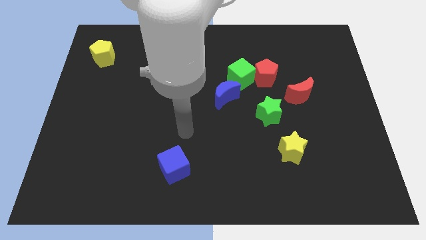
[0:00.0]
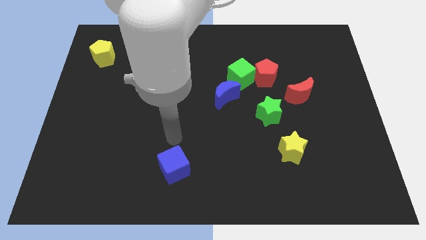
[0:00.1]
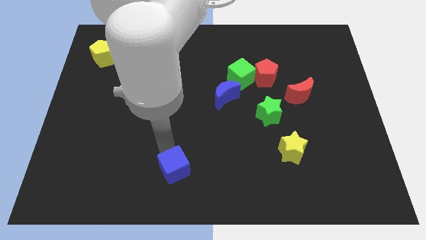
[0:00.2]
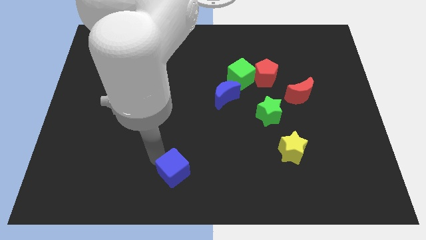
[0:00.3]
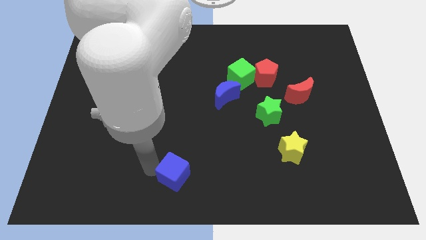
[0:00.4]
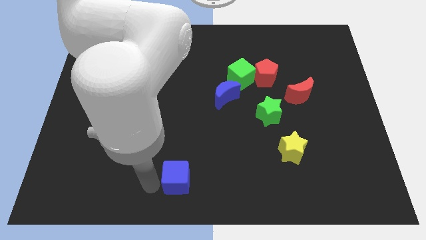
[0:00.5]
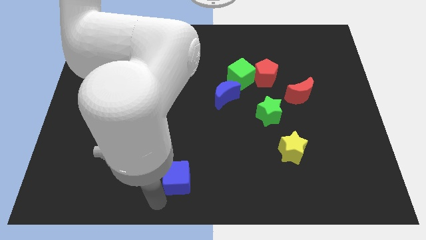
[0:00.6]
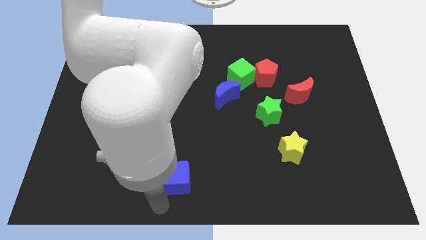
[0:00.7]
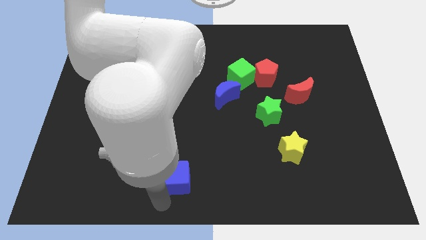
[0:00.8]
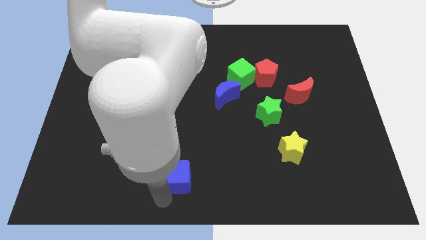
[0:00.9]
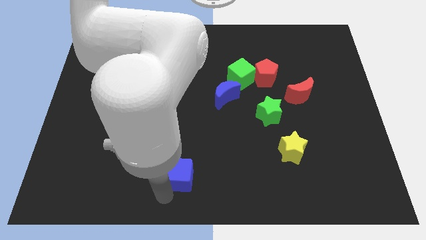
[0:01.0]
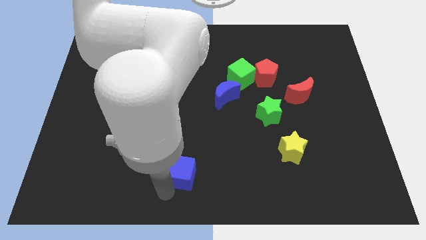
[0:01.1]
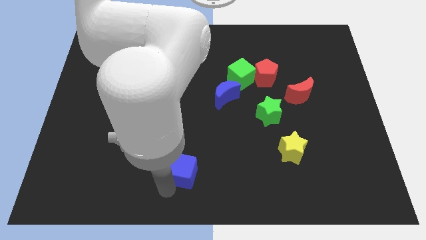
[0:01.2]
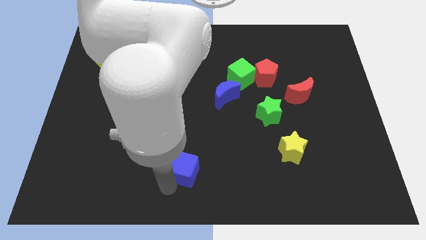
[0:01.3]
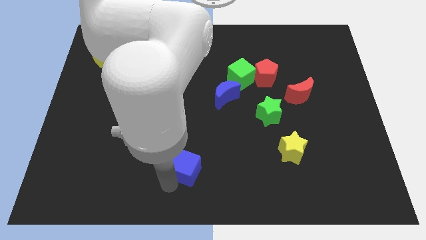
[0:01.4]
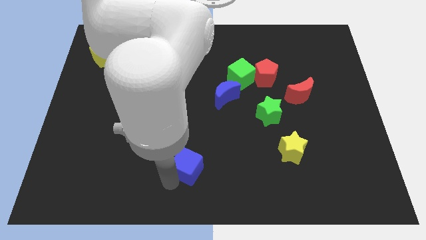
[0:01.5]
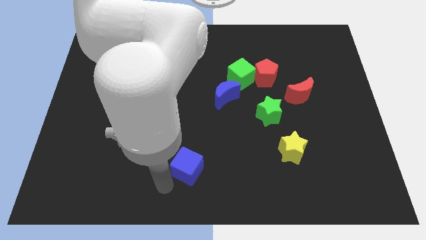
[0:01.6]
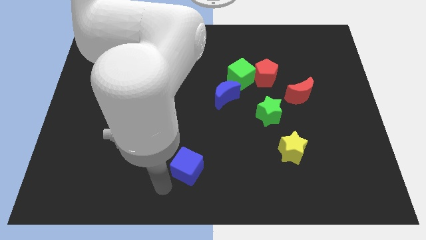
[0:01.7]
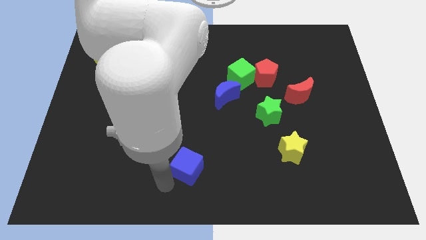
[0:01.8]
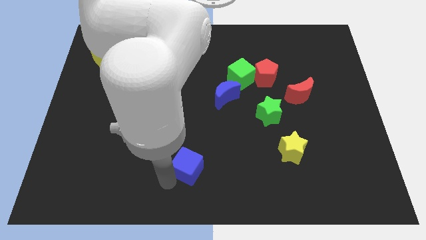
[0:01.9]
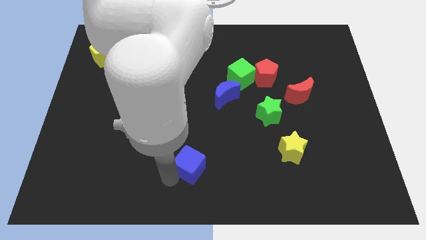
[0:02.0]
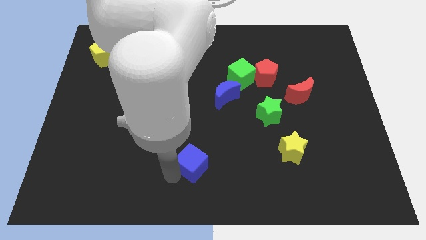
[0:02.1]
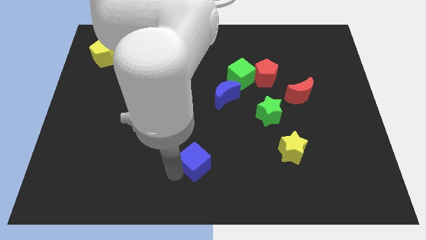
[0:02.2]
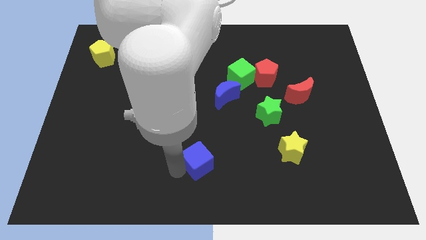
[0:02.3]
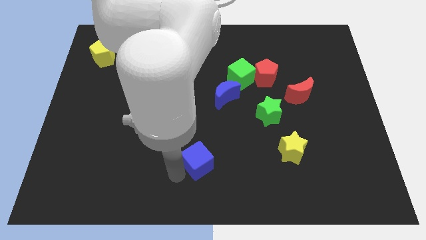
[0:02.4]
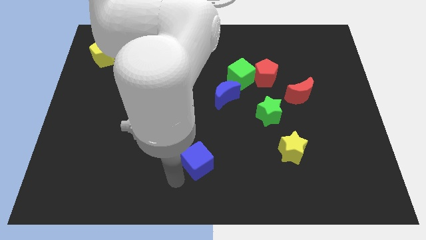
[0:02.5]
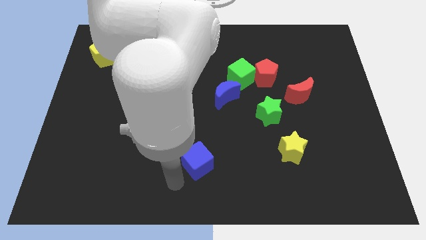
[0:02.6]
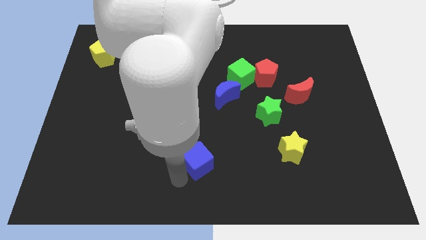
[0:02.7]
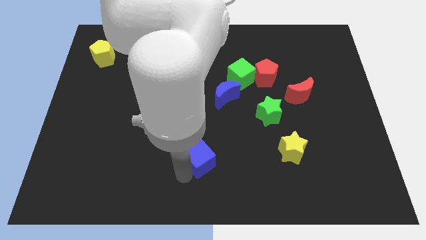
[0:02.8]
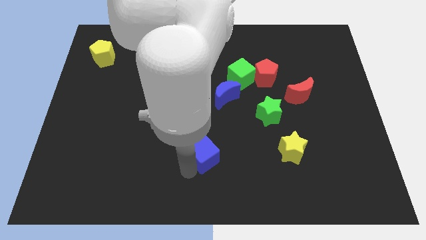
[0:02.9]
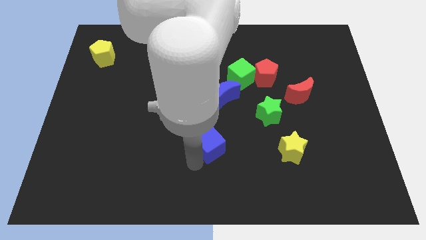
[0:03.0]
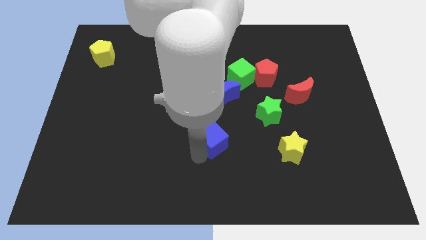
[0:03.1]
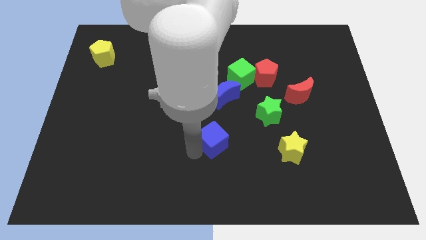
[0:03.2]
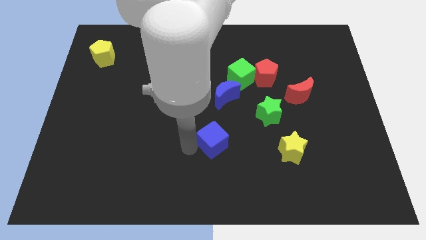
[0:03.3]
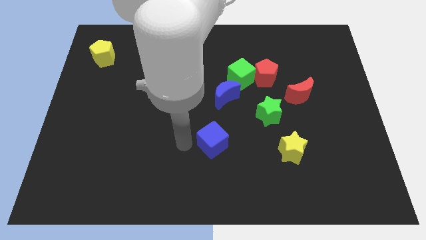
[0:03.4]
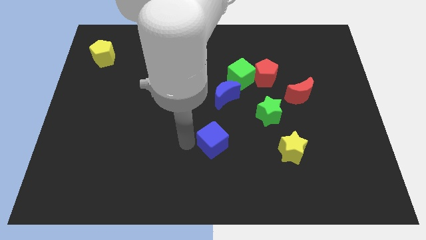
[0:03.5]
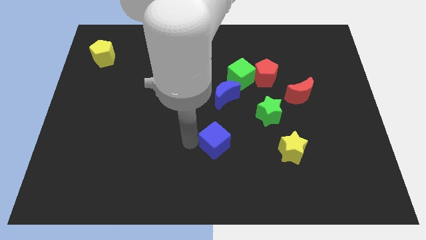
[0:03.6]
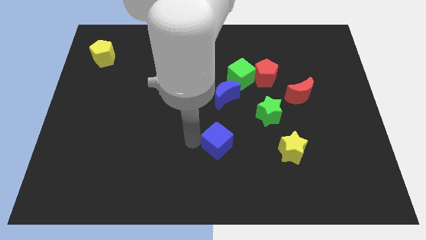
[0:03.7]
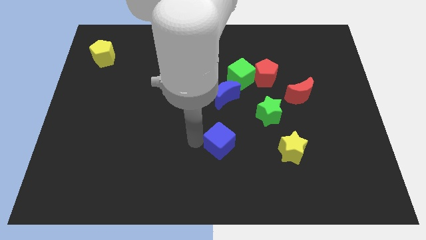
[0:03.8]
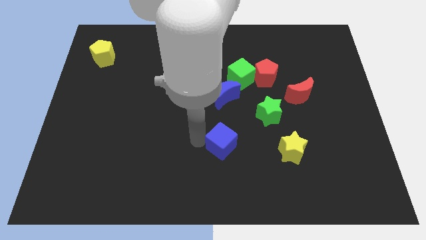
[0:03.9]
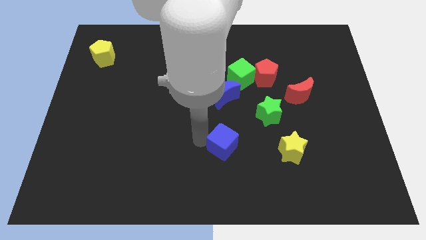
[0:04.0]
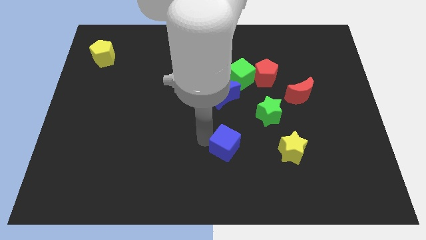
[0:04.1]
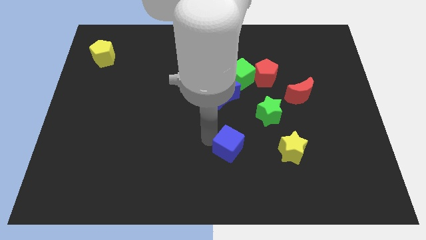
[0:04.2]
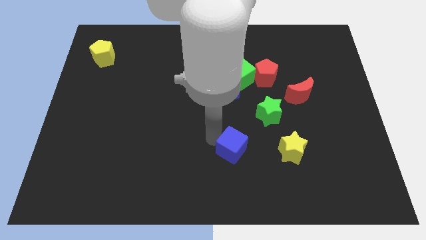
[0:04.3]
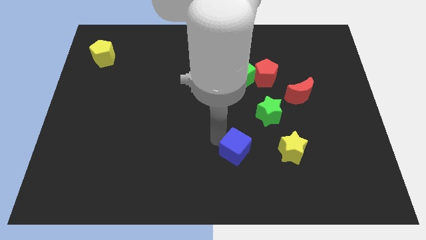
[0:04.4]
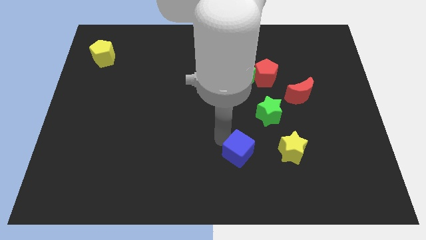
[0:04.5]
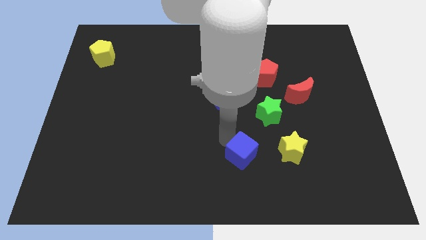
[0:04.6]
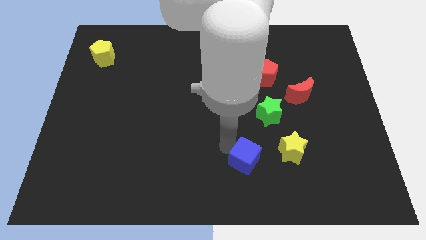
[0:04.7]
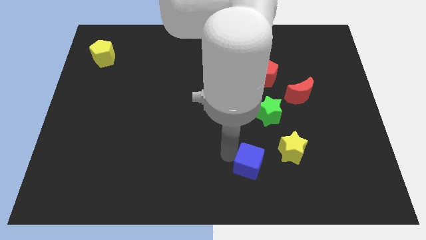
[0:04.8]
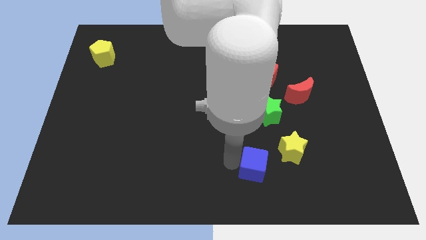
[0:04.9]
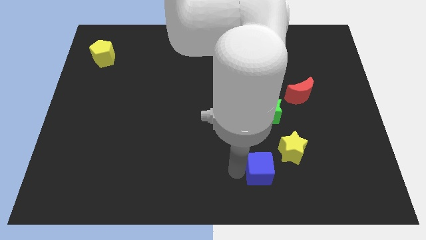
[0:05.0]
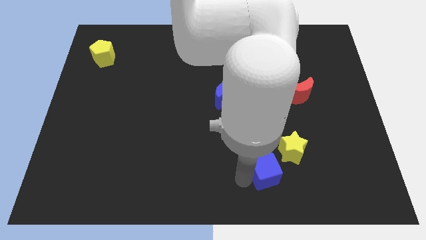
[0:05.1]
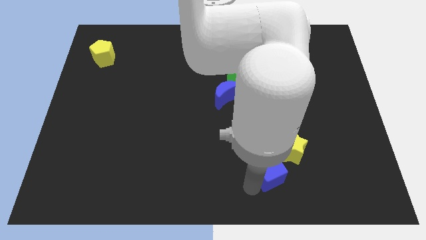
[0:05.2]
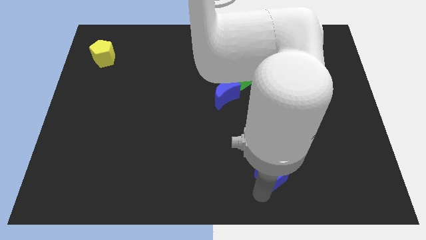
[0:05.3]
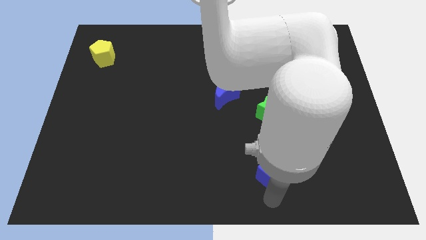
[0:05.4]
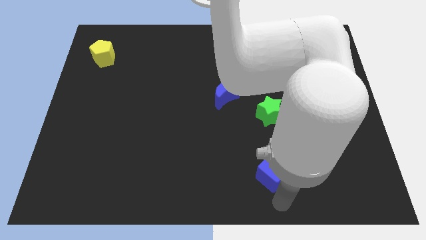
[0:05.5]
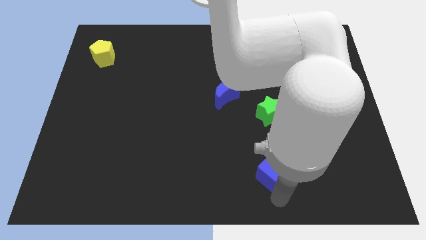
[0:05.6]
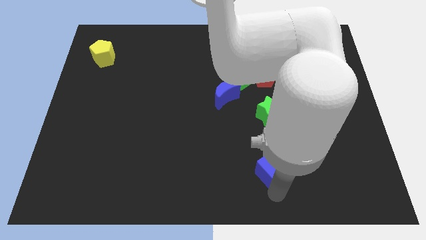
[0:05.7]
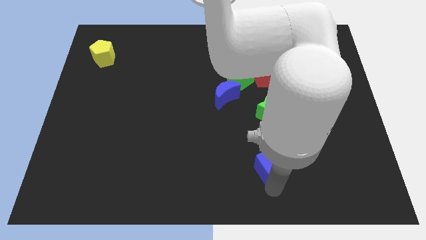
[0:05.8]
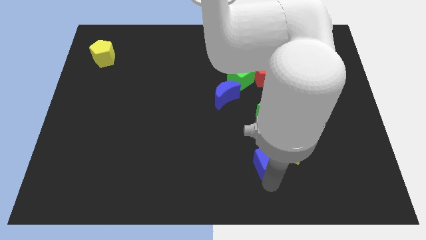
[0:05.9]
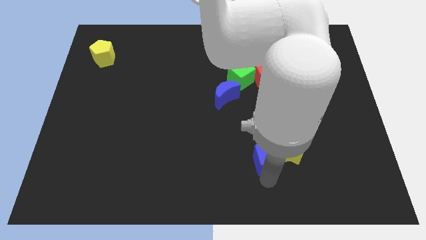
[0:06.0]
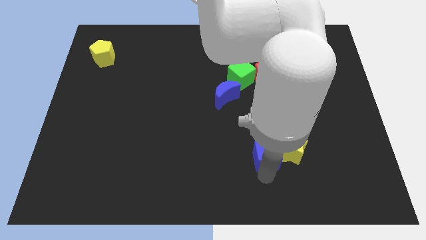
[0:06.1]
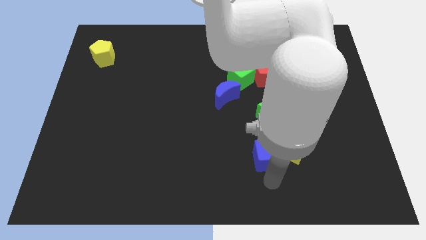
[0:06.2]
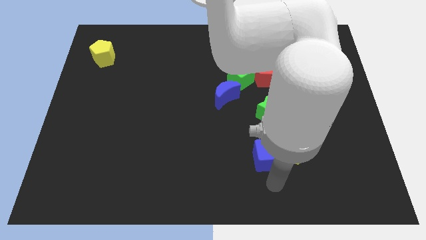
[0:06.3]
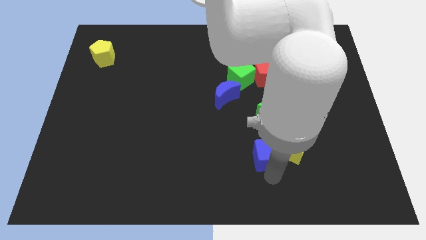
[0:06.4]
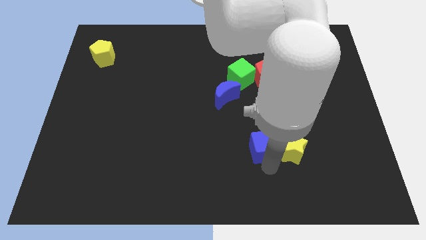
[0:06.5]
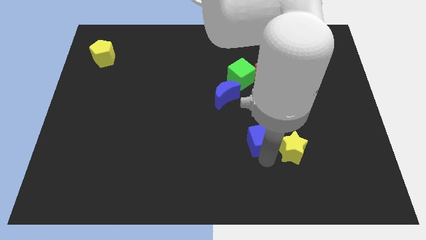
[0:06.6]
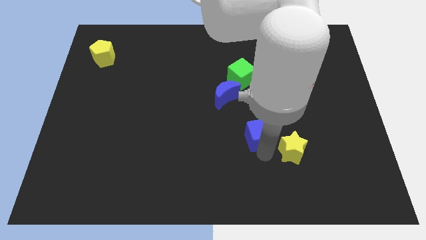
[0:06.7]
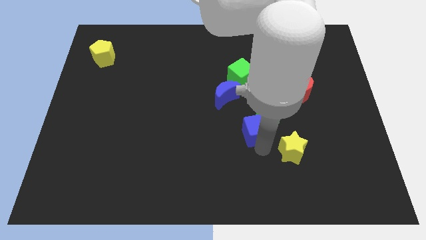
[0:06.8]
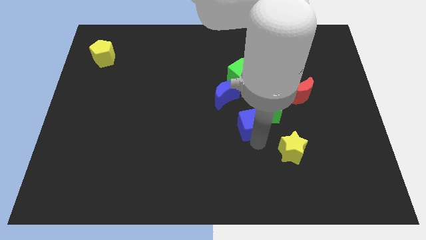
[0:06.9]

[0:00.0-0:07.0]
move the blue cube next to the green star
